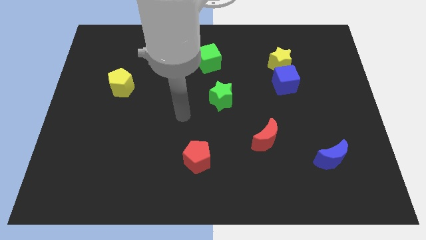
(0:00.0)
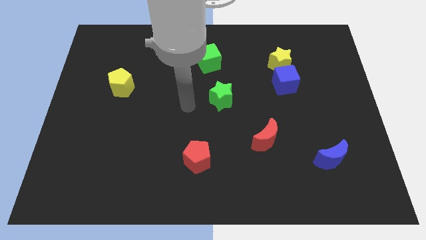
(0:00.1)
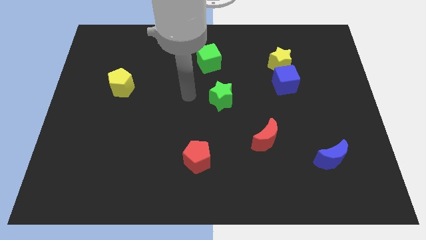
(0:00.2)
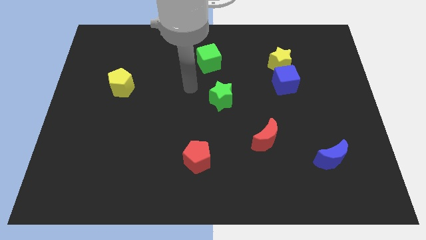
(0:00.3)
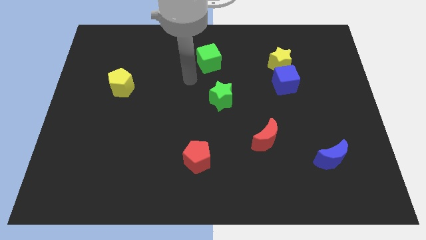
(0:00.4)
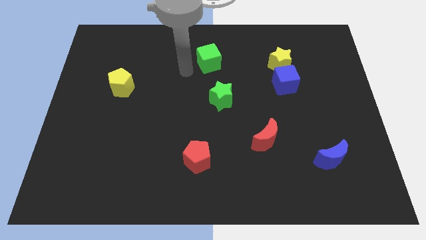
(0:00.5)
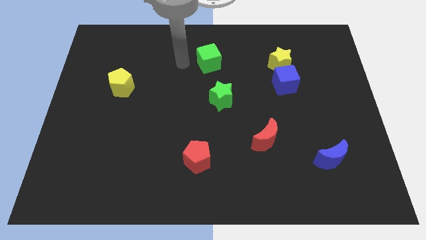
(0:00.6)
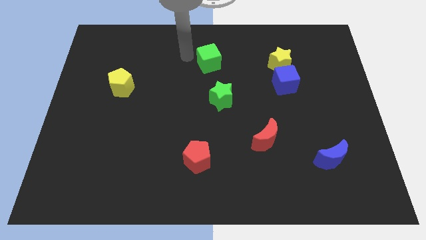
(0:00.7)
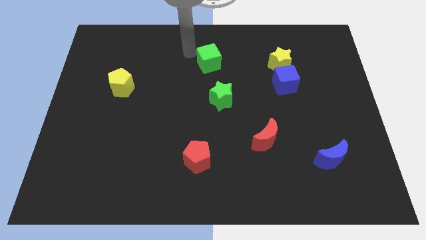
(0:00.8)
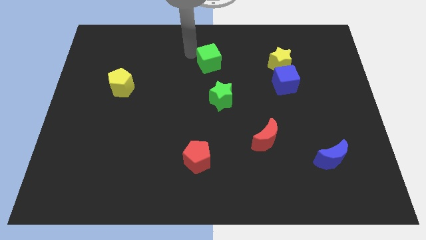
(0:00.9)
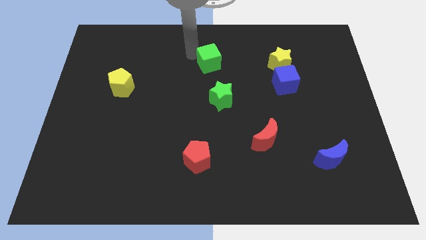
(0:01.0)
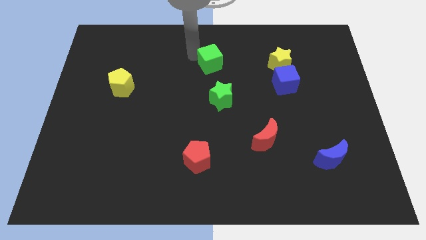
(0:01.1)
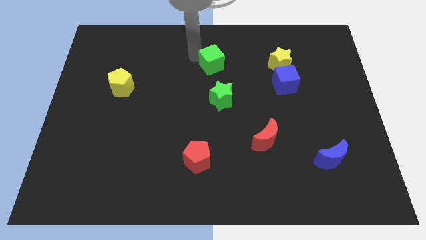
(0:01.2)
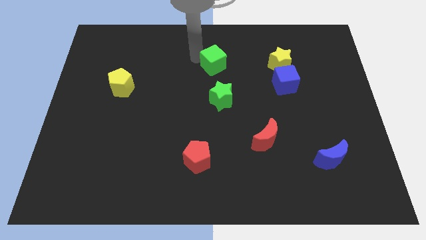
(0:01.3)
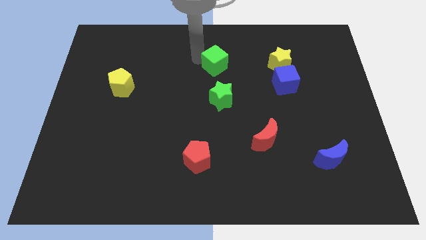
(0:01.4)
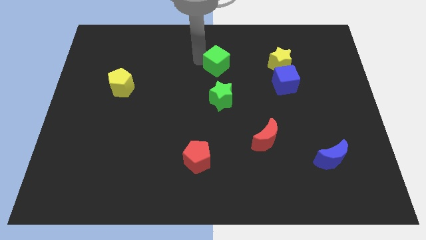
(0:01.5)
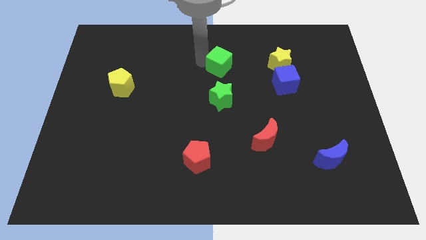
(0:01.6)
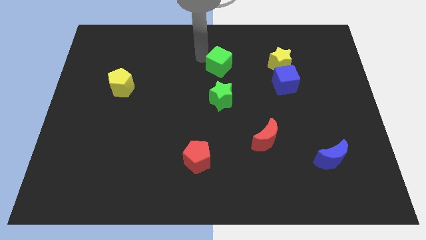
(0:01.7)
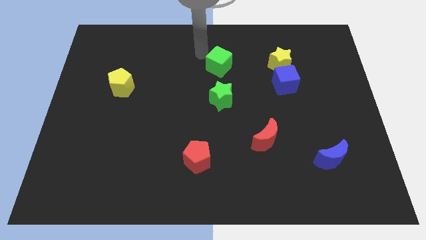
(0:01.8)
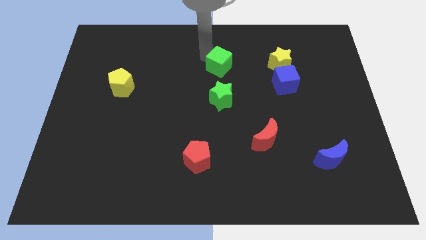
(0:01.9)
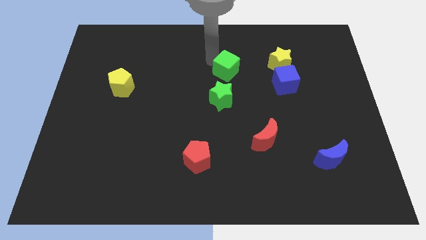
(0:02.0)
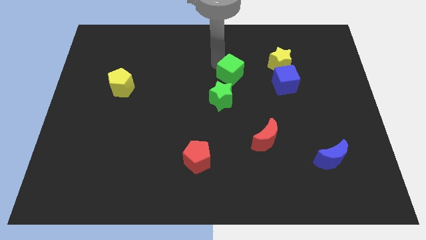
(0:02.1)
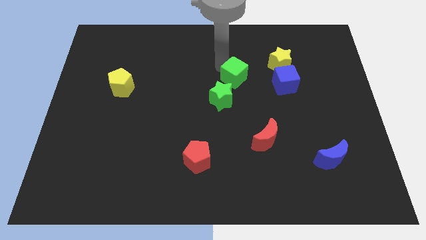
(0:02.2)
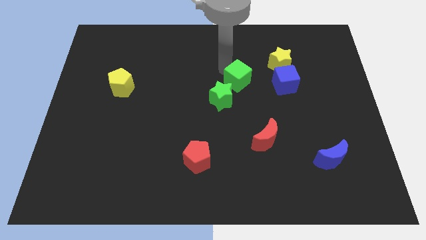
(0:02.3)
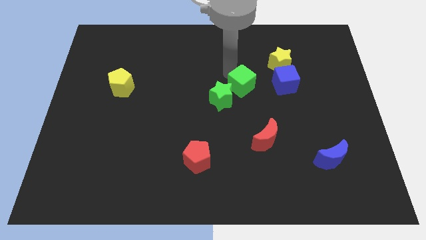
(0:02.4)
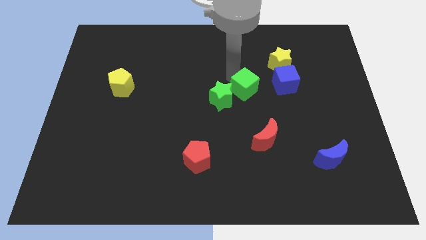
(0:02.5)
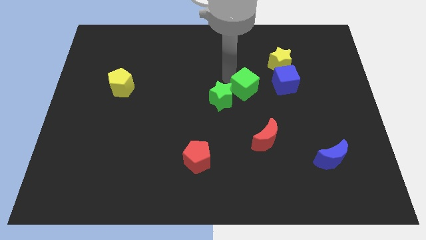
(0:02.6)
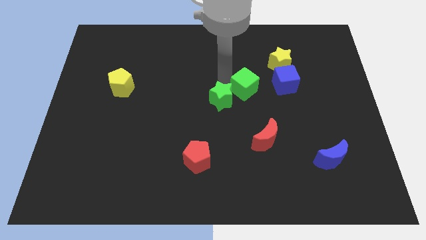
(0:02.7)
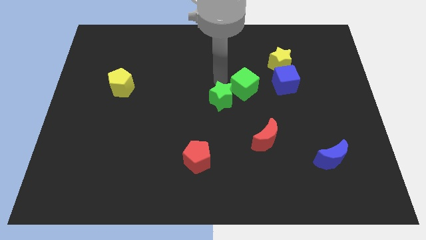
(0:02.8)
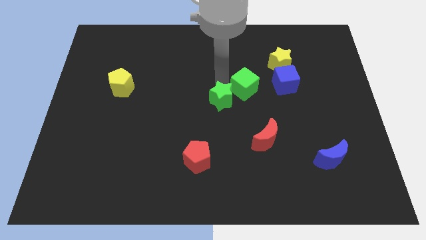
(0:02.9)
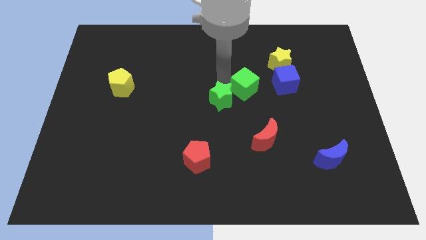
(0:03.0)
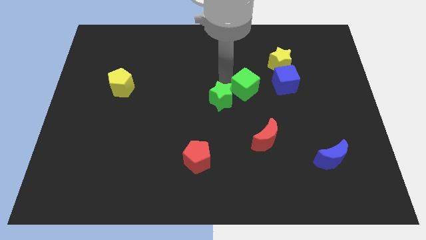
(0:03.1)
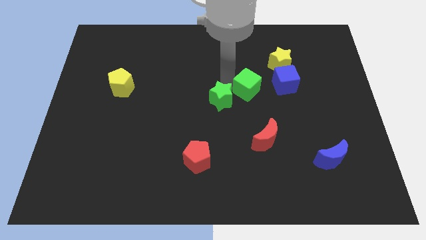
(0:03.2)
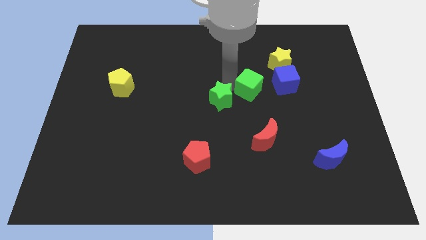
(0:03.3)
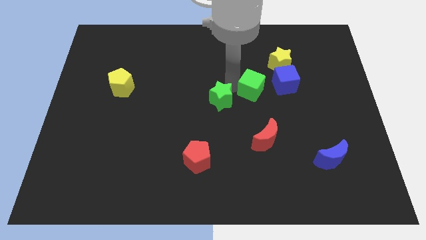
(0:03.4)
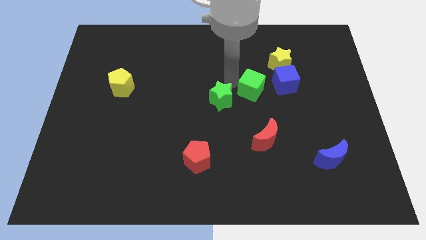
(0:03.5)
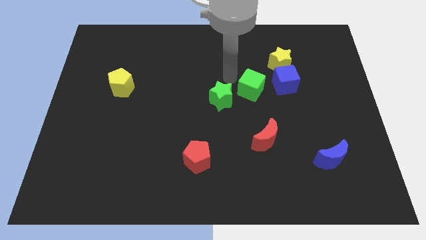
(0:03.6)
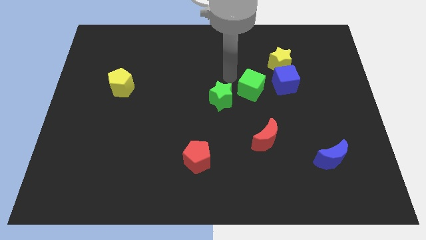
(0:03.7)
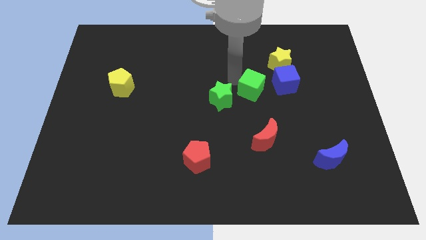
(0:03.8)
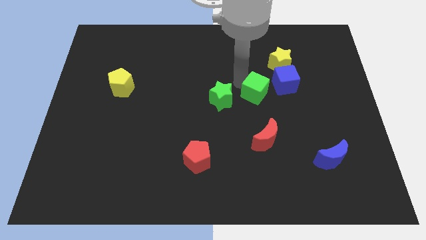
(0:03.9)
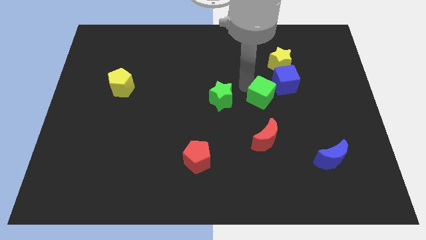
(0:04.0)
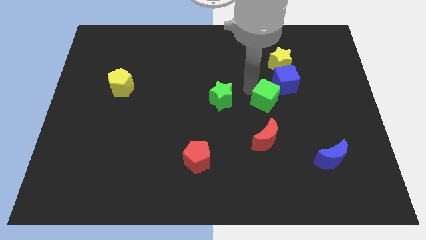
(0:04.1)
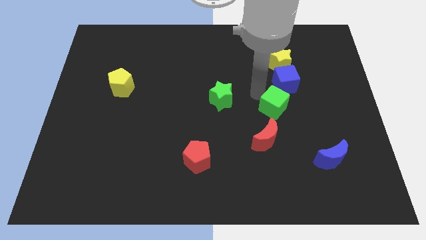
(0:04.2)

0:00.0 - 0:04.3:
slide the green cube down and to the right

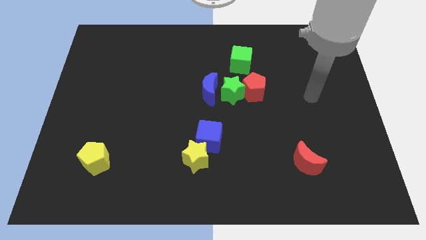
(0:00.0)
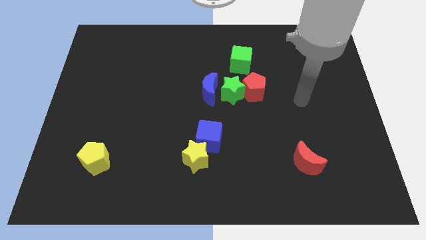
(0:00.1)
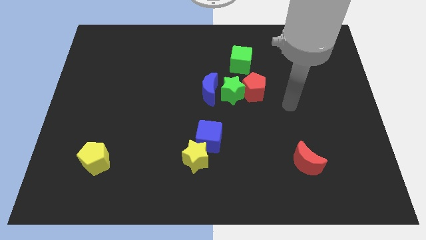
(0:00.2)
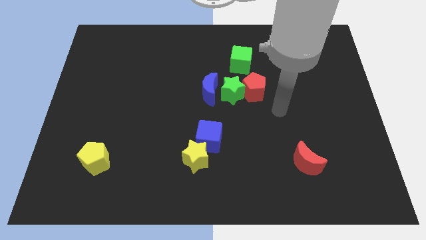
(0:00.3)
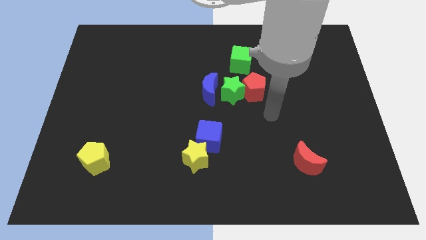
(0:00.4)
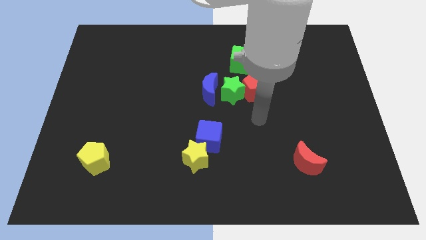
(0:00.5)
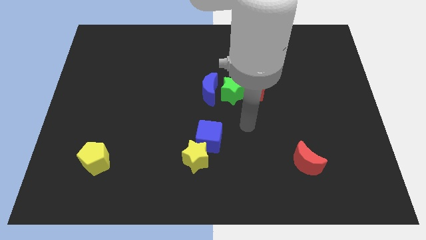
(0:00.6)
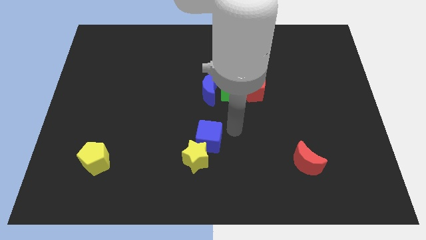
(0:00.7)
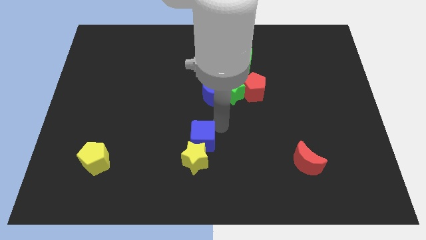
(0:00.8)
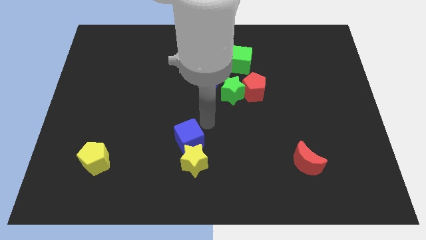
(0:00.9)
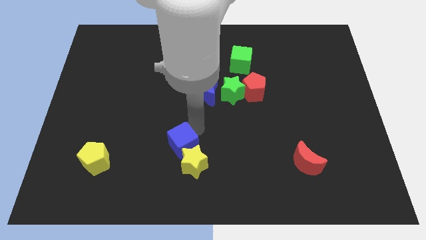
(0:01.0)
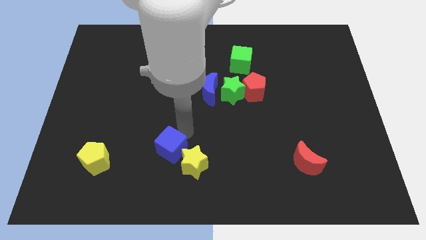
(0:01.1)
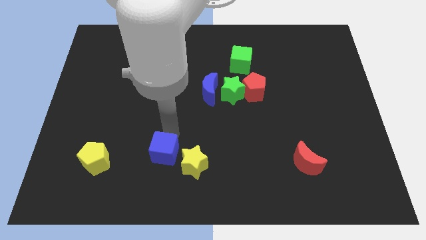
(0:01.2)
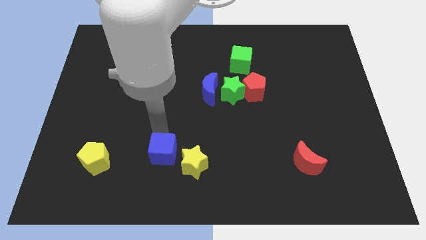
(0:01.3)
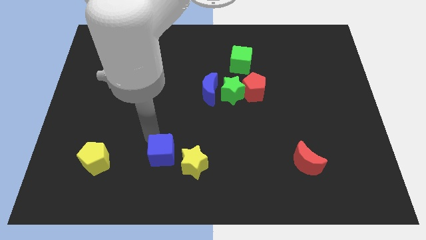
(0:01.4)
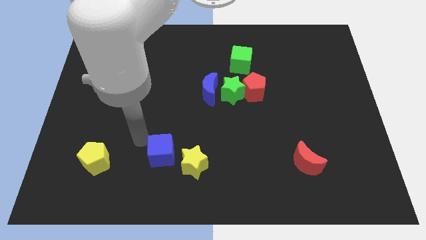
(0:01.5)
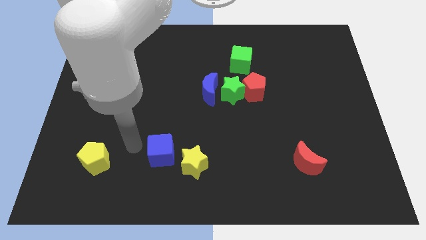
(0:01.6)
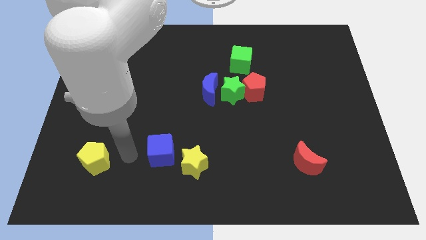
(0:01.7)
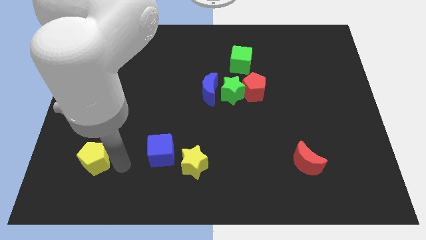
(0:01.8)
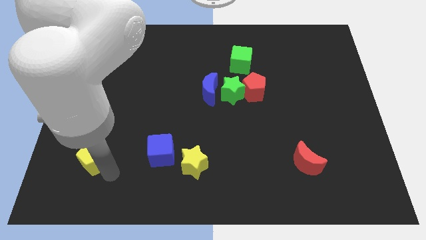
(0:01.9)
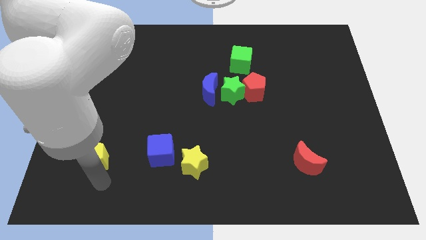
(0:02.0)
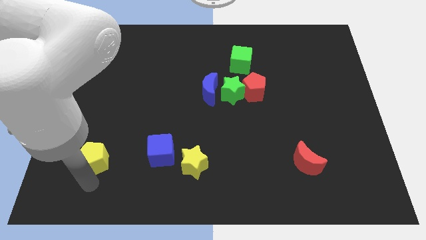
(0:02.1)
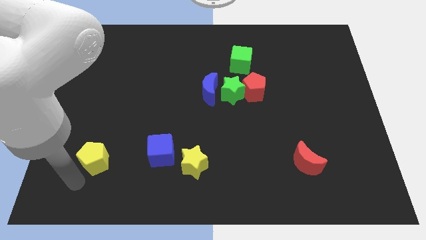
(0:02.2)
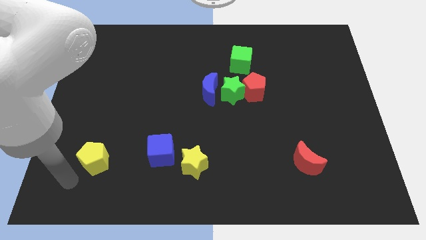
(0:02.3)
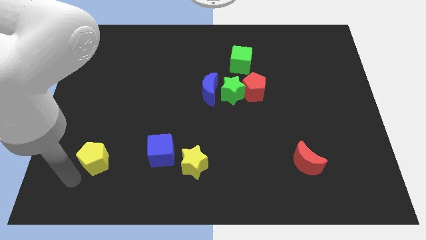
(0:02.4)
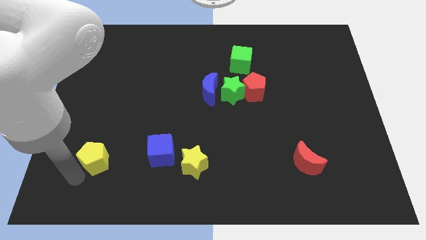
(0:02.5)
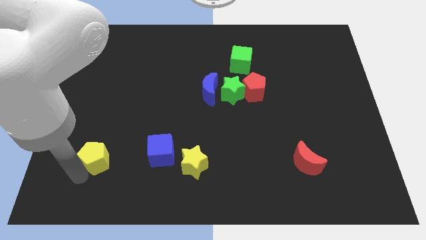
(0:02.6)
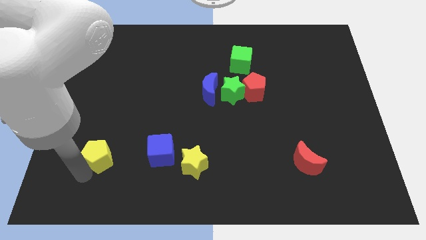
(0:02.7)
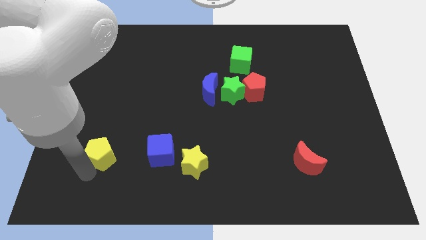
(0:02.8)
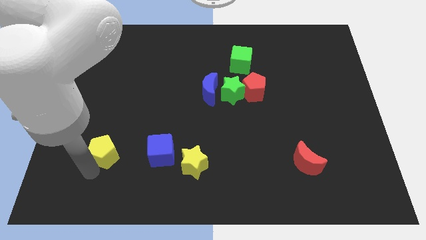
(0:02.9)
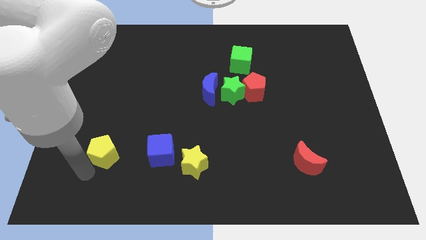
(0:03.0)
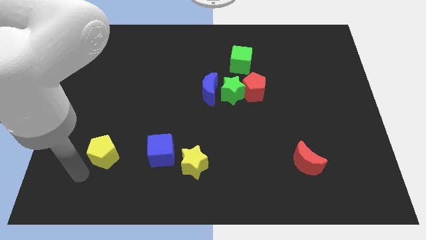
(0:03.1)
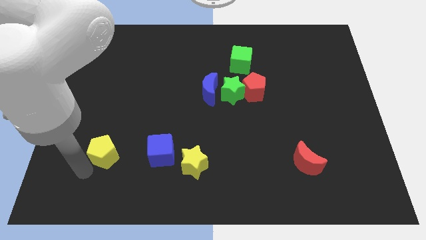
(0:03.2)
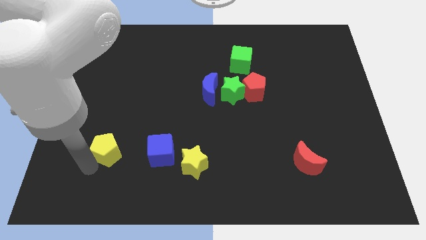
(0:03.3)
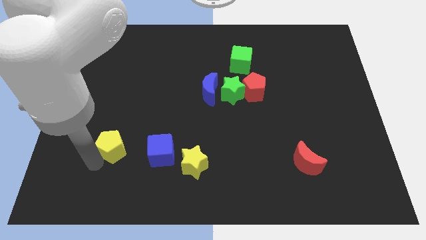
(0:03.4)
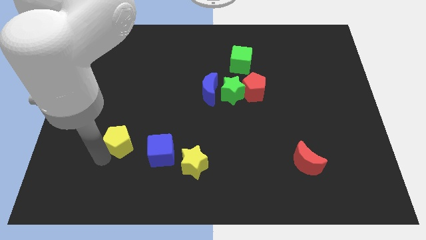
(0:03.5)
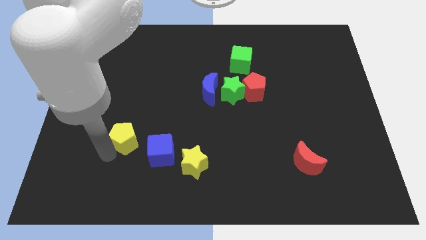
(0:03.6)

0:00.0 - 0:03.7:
slightly slide the yellow pentagon upwards and to the right diagonally
